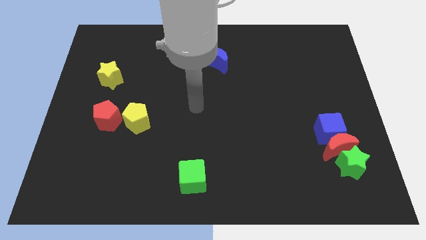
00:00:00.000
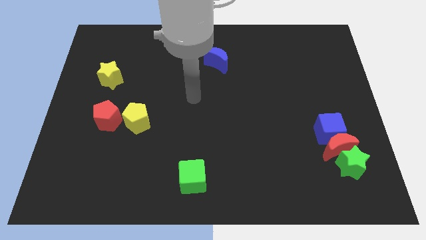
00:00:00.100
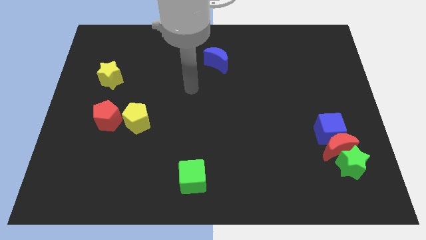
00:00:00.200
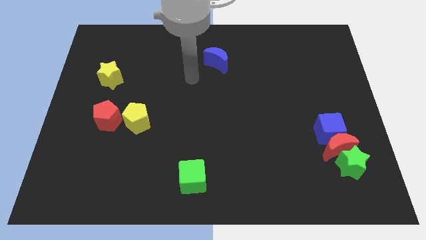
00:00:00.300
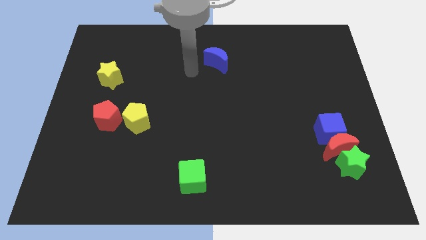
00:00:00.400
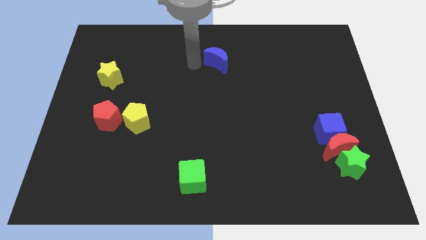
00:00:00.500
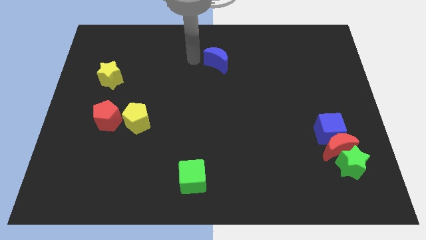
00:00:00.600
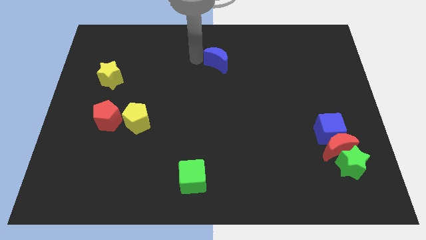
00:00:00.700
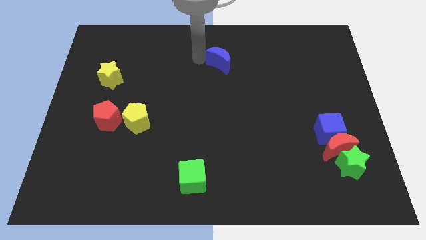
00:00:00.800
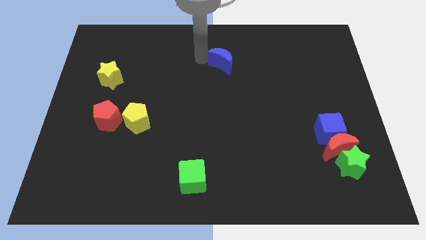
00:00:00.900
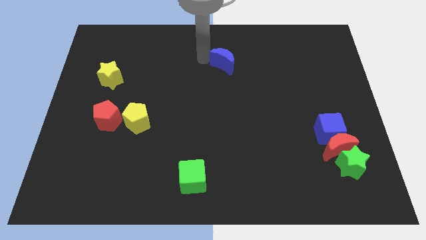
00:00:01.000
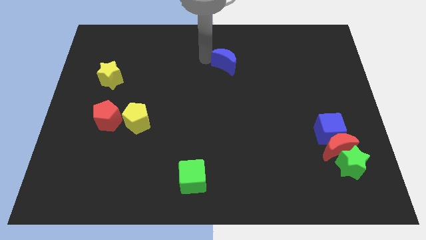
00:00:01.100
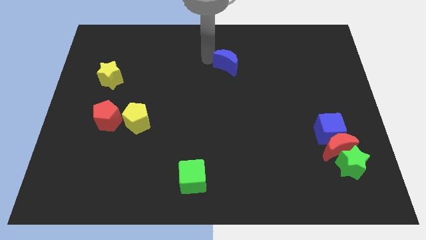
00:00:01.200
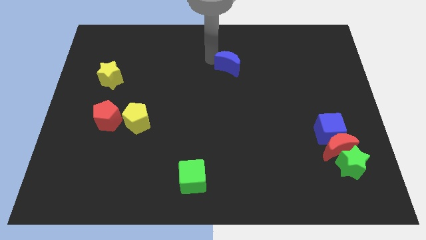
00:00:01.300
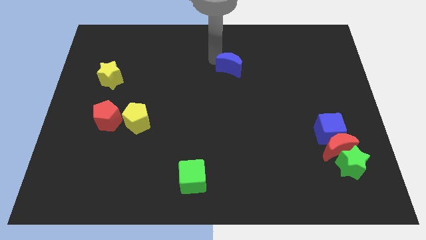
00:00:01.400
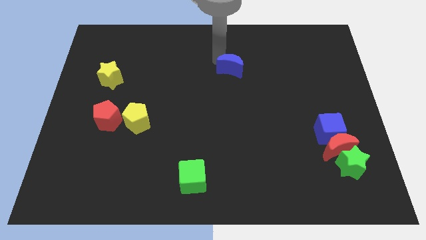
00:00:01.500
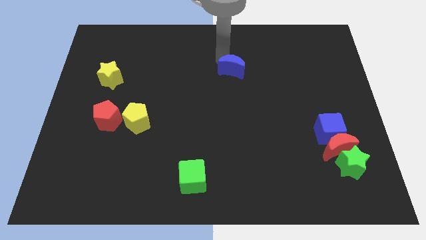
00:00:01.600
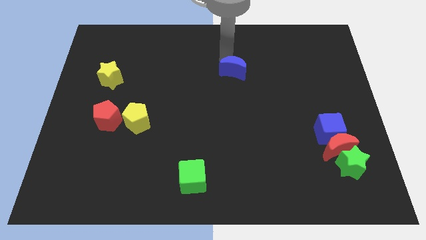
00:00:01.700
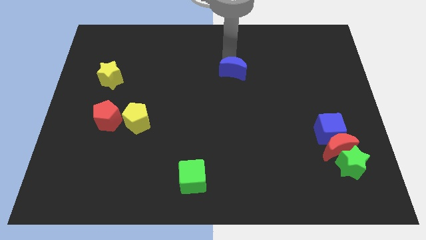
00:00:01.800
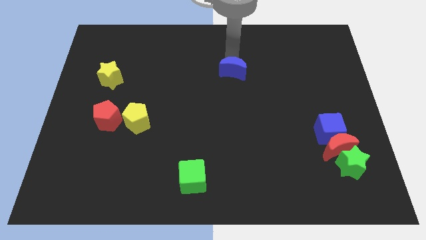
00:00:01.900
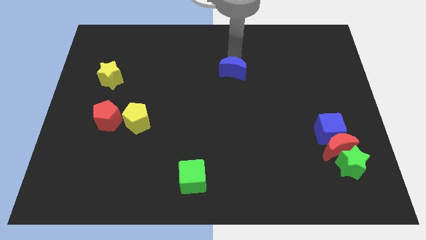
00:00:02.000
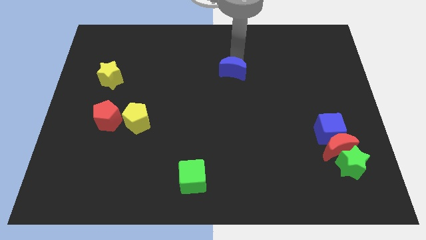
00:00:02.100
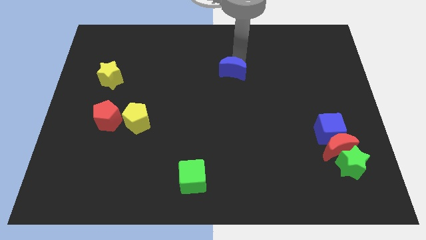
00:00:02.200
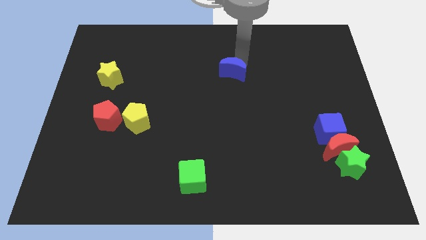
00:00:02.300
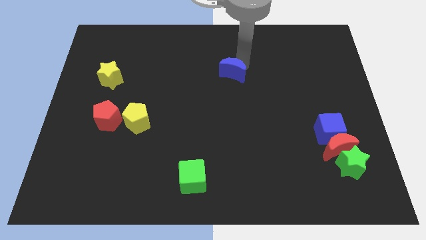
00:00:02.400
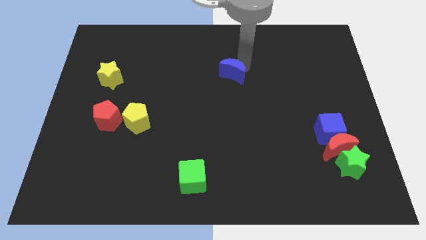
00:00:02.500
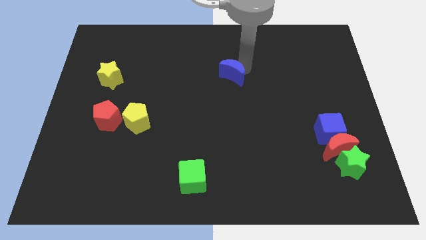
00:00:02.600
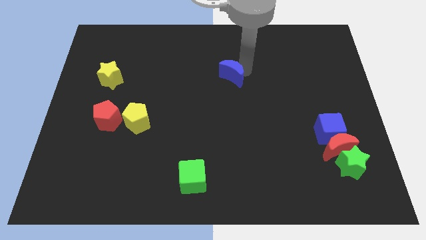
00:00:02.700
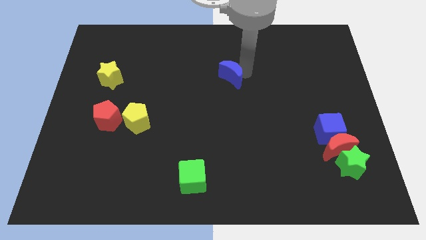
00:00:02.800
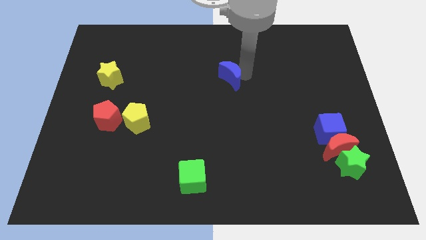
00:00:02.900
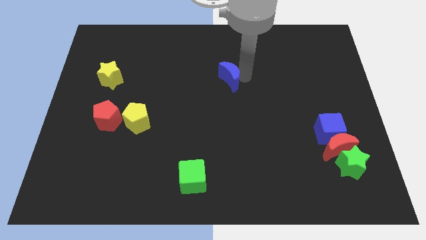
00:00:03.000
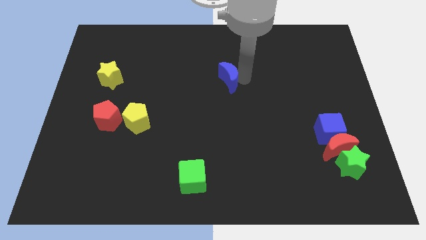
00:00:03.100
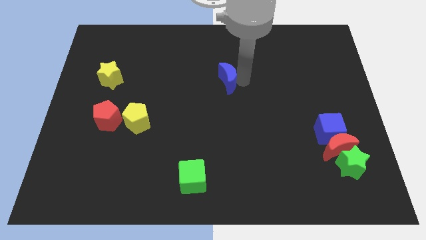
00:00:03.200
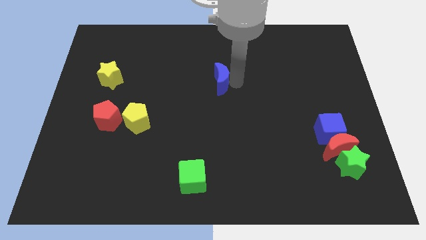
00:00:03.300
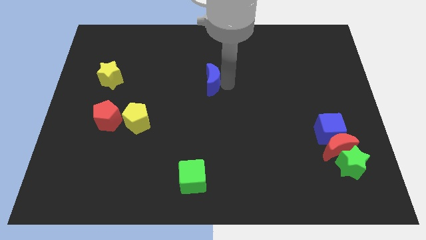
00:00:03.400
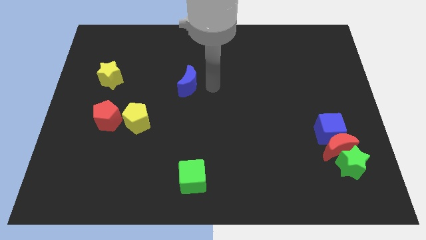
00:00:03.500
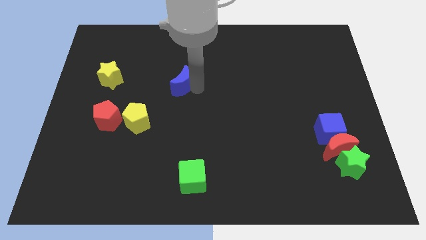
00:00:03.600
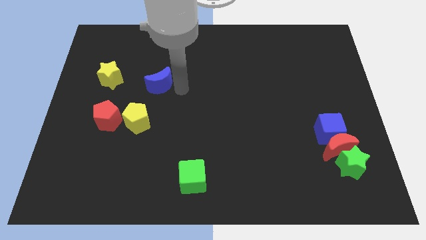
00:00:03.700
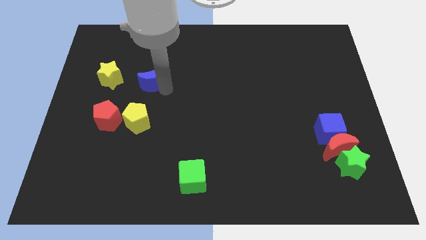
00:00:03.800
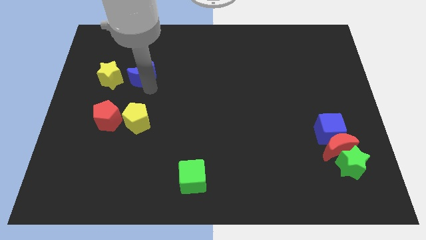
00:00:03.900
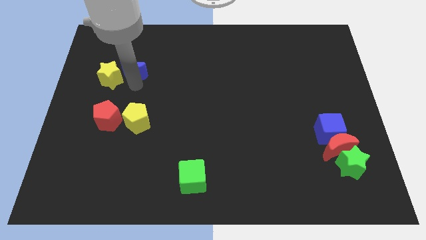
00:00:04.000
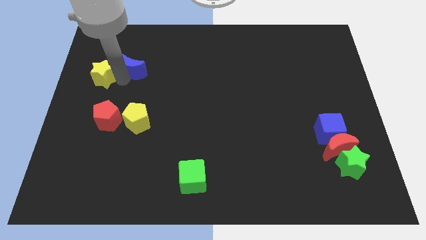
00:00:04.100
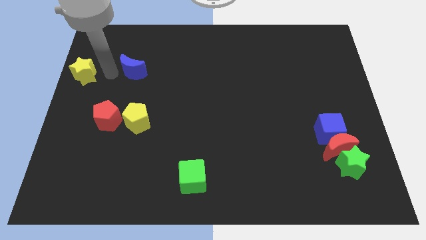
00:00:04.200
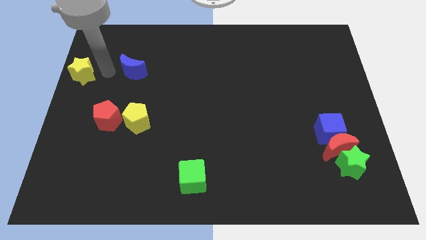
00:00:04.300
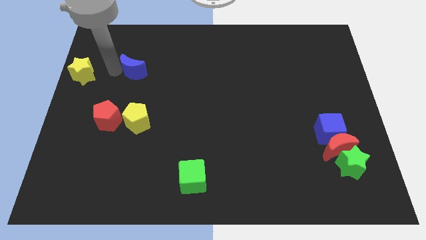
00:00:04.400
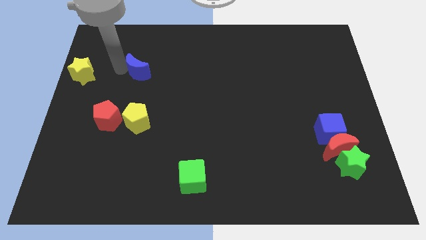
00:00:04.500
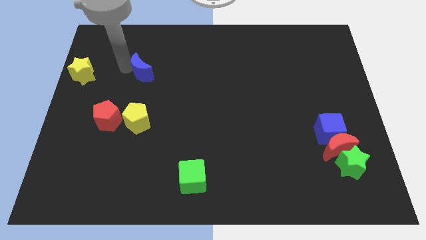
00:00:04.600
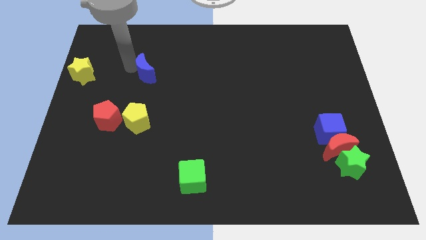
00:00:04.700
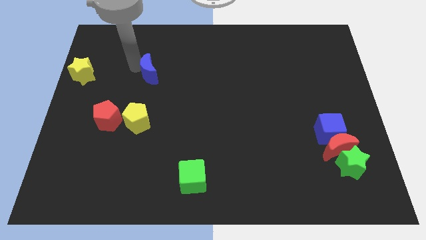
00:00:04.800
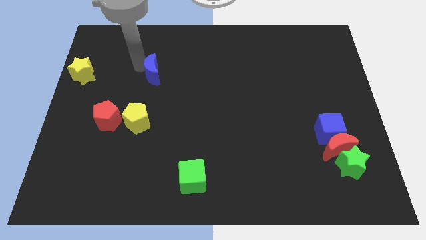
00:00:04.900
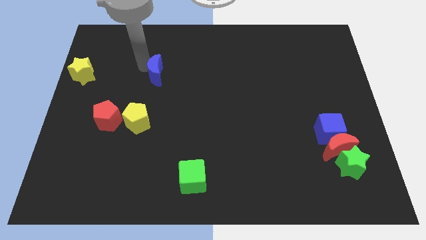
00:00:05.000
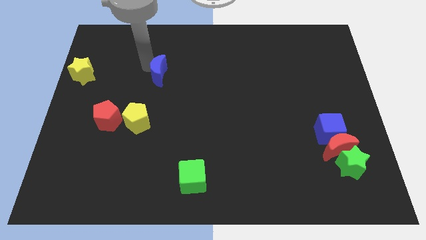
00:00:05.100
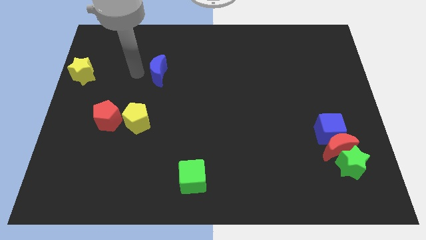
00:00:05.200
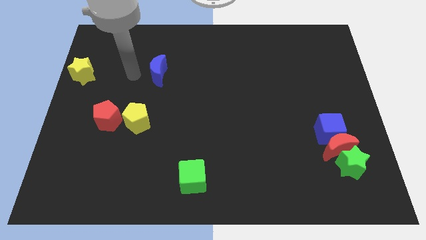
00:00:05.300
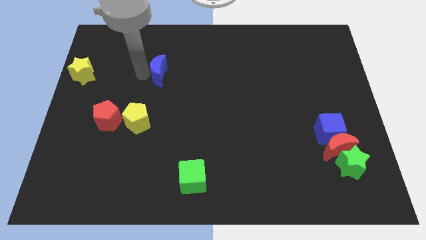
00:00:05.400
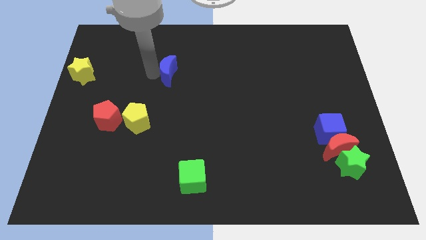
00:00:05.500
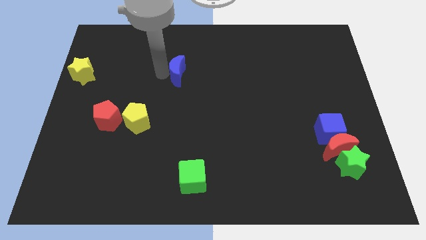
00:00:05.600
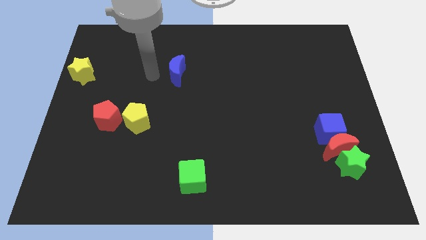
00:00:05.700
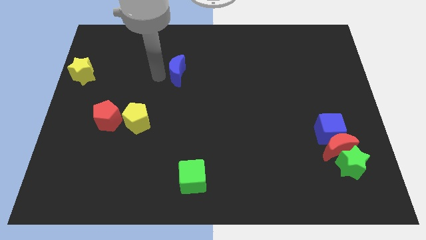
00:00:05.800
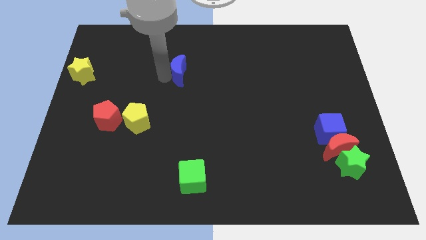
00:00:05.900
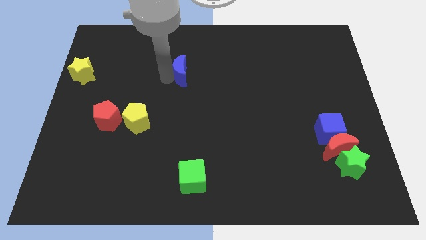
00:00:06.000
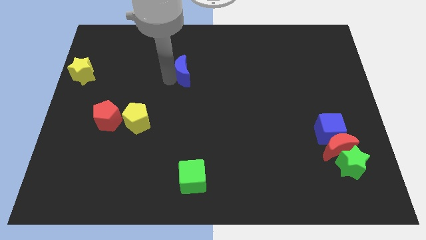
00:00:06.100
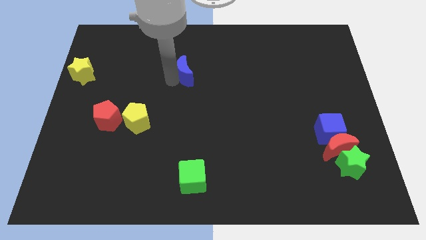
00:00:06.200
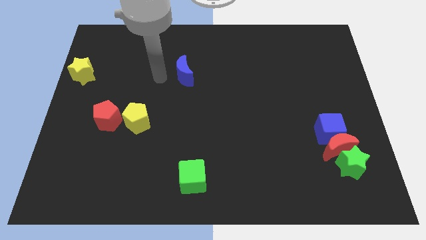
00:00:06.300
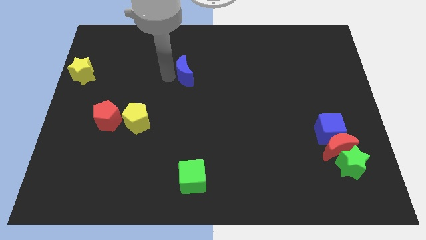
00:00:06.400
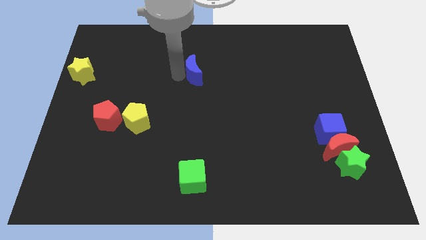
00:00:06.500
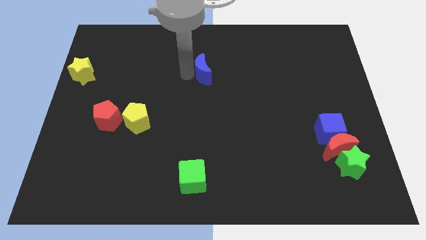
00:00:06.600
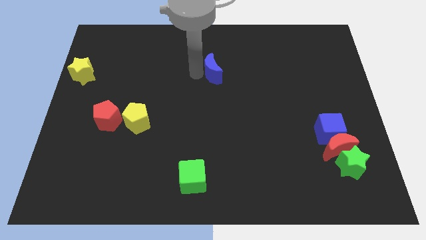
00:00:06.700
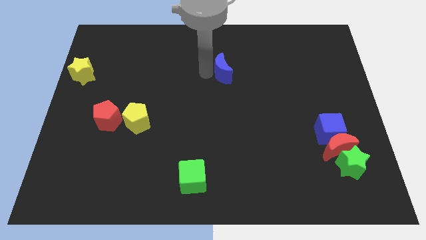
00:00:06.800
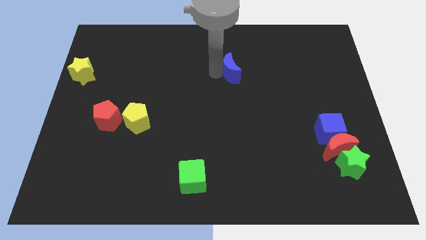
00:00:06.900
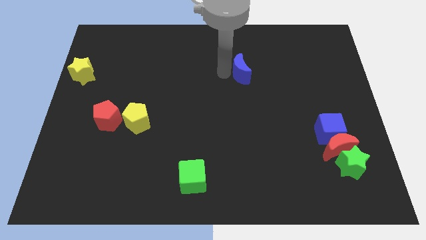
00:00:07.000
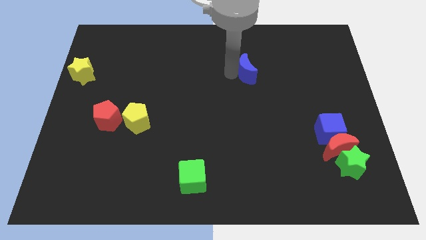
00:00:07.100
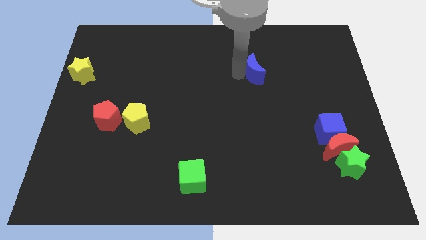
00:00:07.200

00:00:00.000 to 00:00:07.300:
move the blue moon to the right somewhat

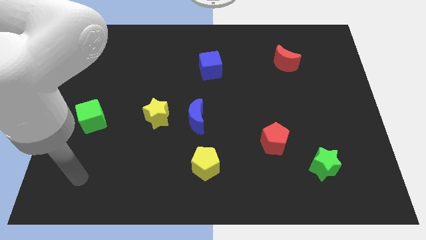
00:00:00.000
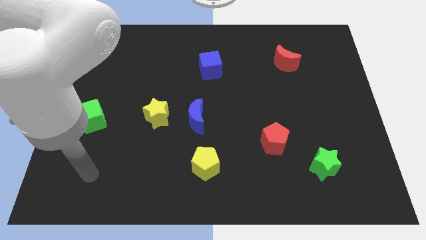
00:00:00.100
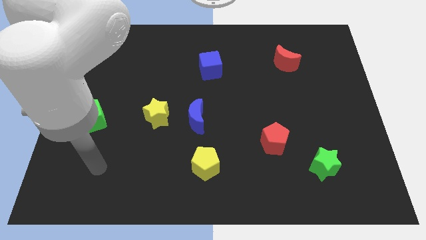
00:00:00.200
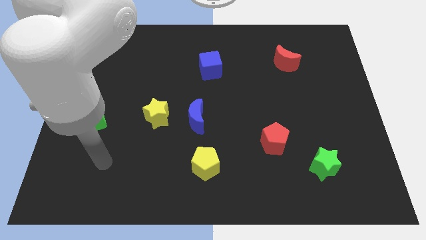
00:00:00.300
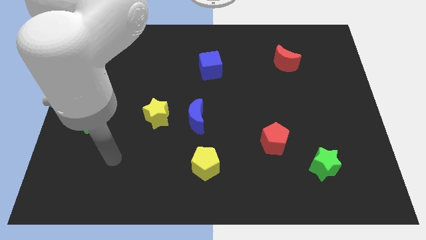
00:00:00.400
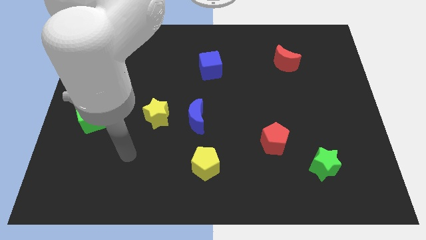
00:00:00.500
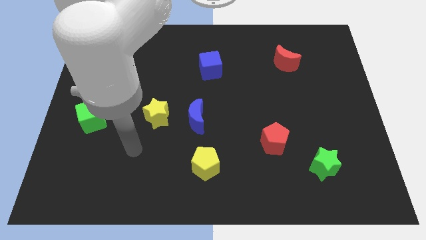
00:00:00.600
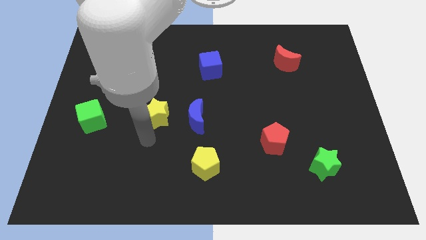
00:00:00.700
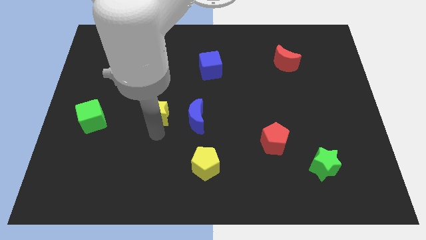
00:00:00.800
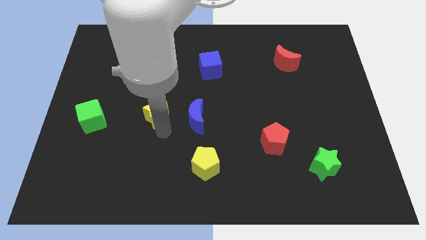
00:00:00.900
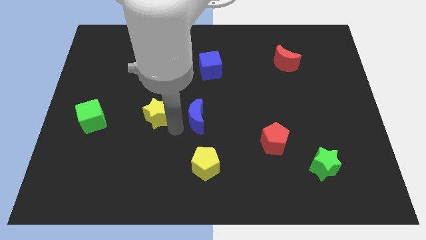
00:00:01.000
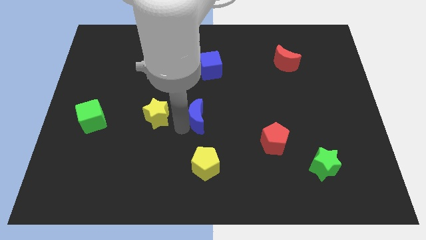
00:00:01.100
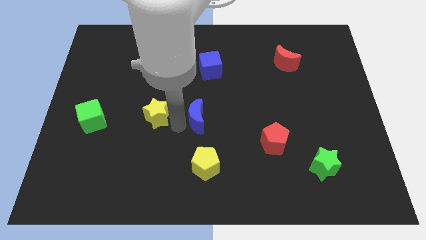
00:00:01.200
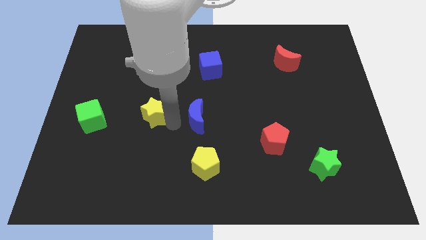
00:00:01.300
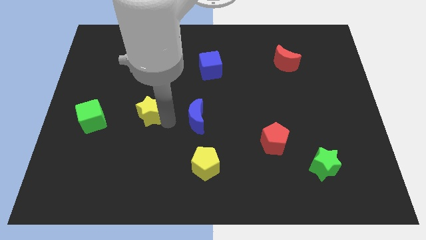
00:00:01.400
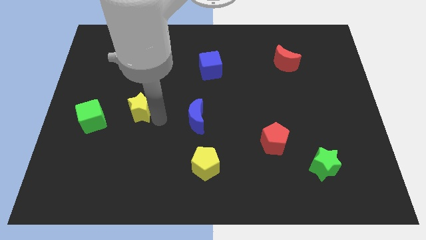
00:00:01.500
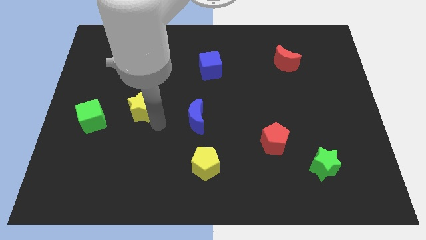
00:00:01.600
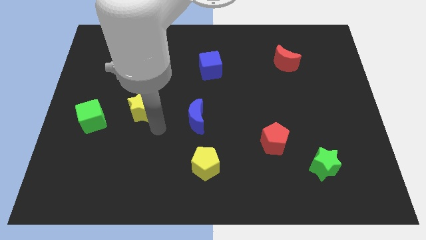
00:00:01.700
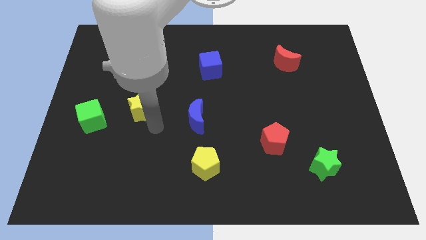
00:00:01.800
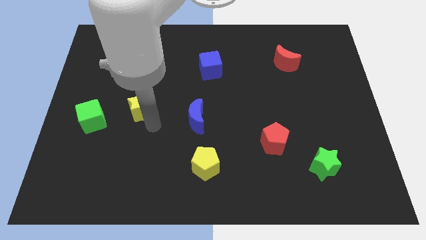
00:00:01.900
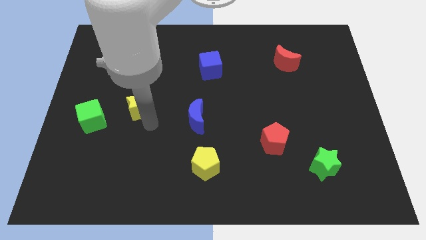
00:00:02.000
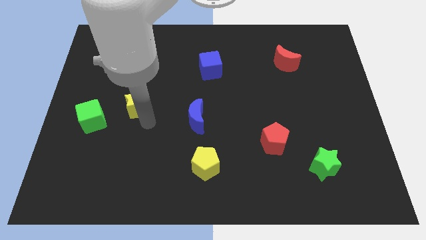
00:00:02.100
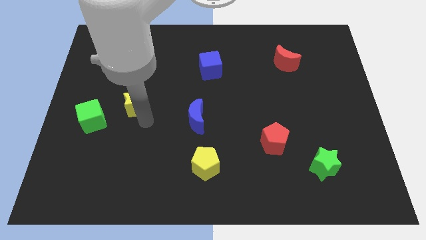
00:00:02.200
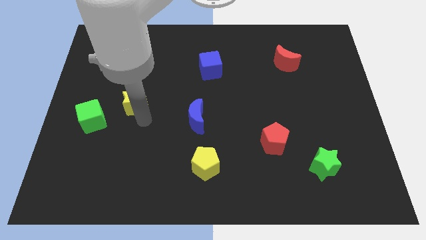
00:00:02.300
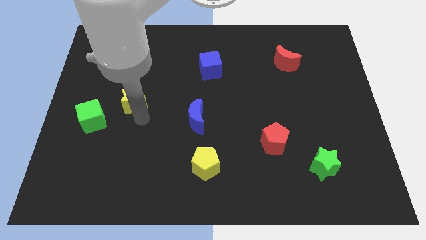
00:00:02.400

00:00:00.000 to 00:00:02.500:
slightly slide the yellow star upwards and to the left
